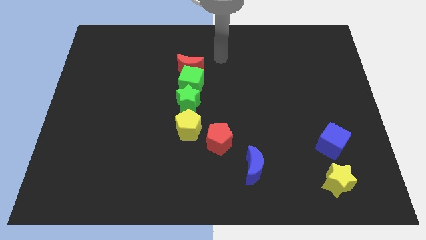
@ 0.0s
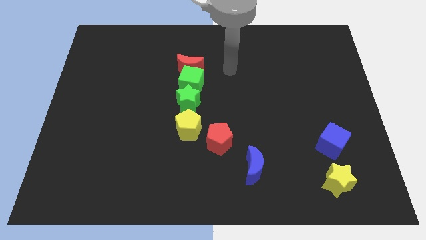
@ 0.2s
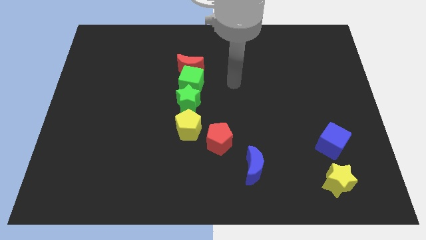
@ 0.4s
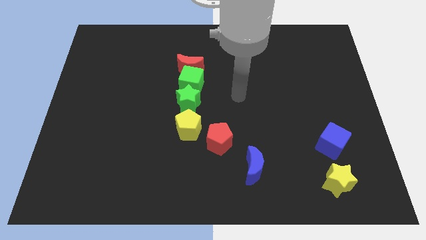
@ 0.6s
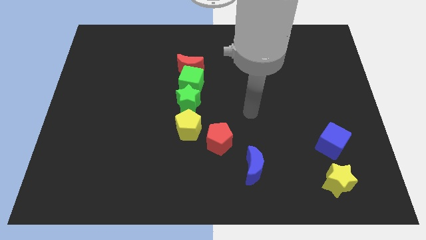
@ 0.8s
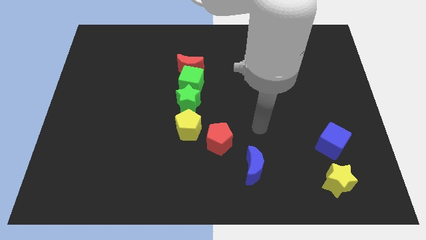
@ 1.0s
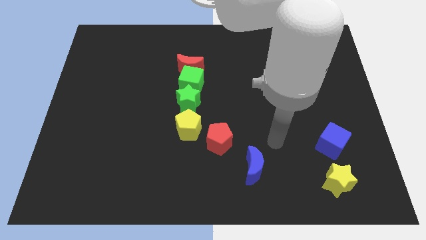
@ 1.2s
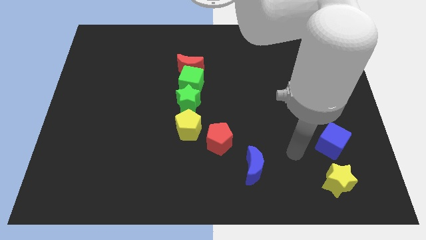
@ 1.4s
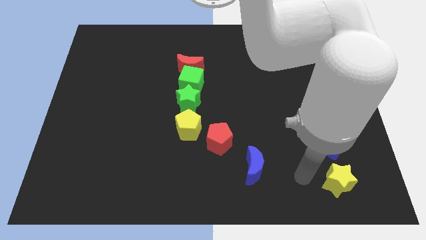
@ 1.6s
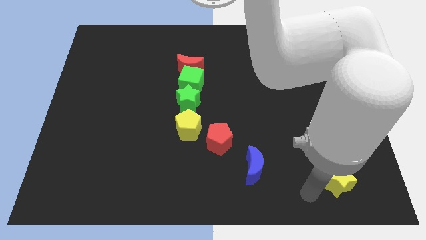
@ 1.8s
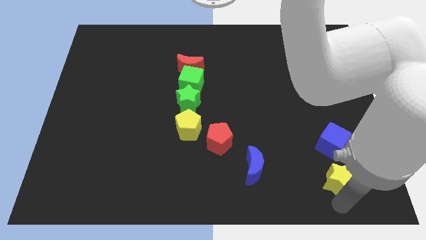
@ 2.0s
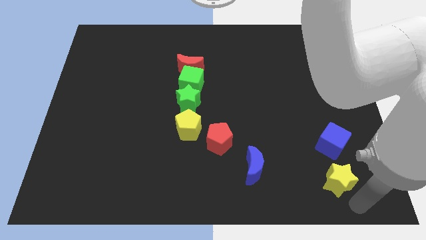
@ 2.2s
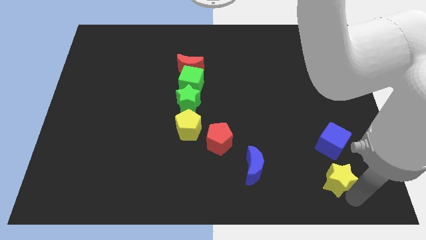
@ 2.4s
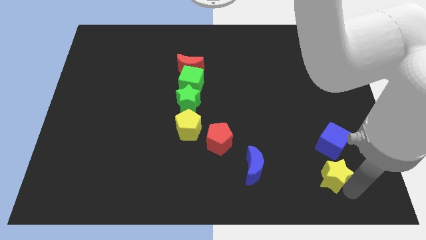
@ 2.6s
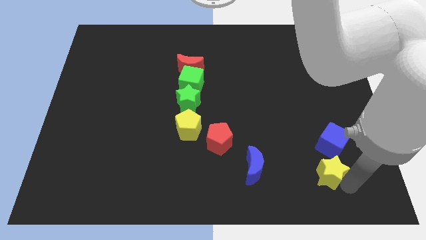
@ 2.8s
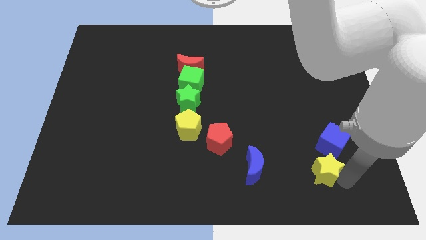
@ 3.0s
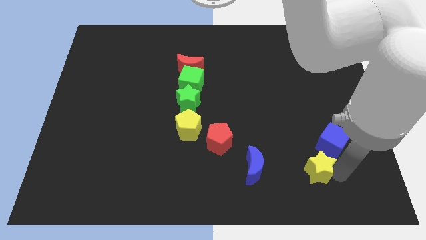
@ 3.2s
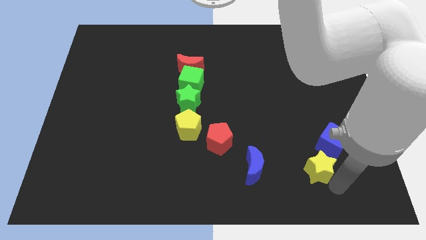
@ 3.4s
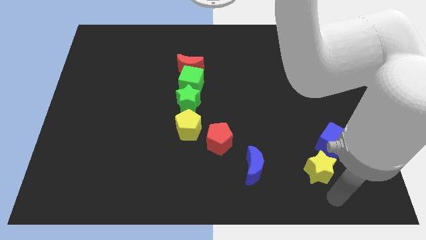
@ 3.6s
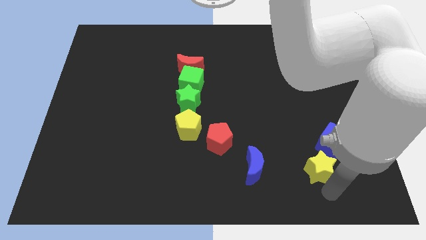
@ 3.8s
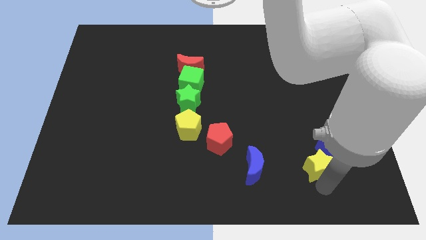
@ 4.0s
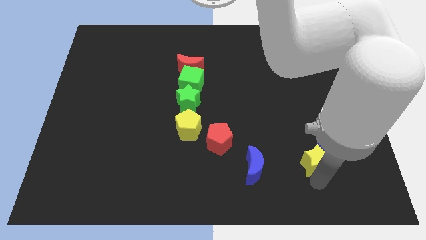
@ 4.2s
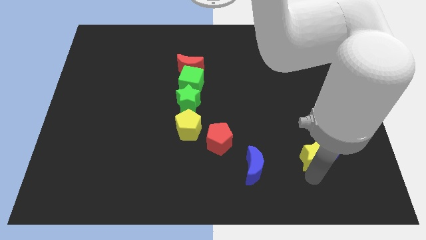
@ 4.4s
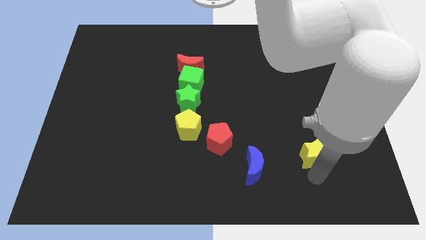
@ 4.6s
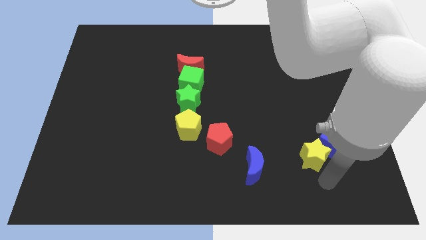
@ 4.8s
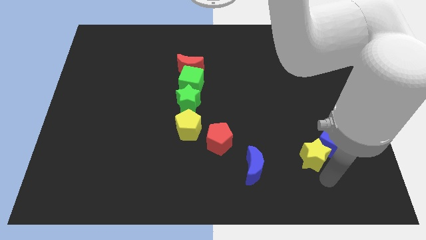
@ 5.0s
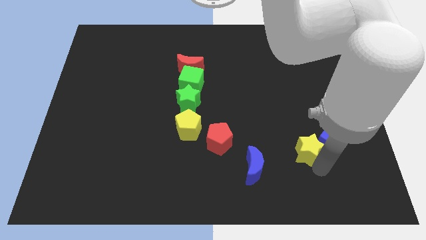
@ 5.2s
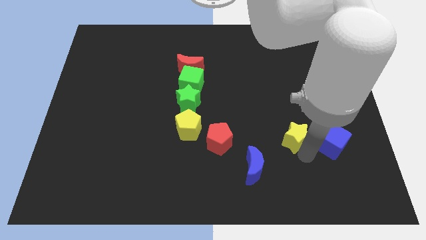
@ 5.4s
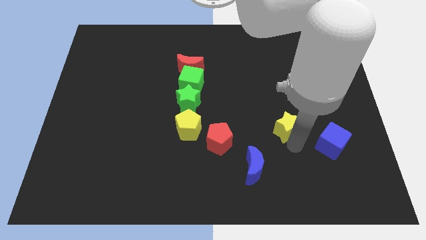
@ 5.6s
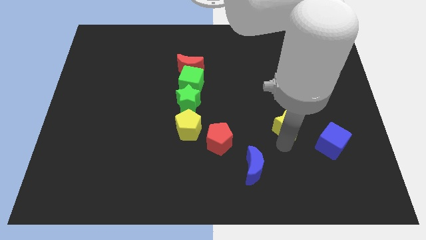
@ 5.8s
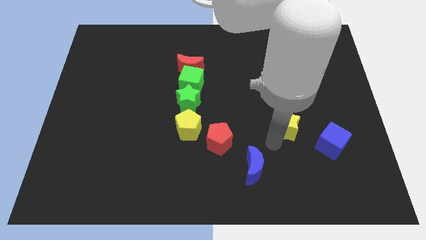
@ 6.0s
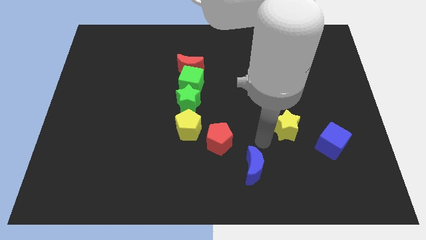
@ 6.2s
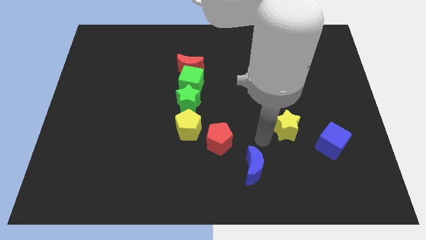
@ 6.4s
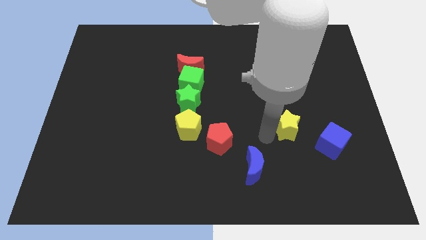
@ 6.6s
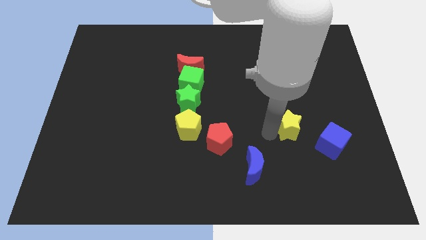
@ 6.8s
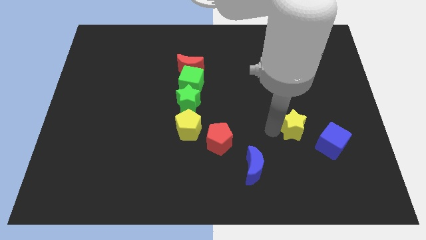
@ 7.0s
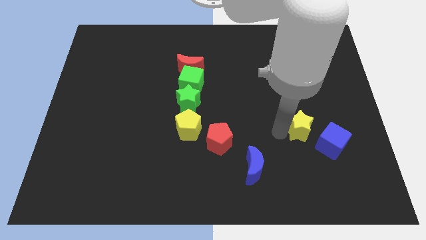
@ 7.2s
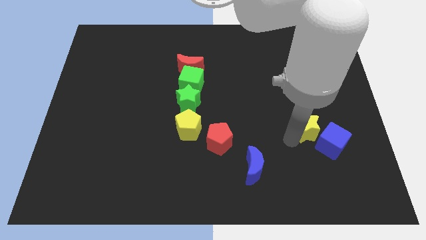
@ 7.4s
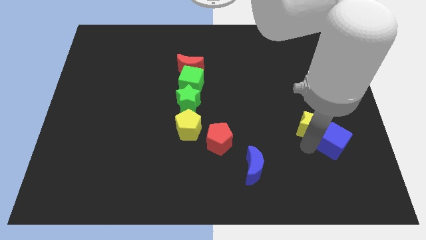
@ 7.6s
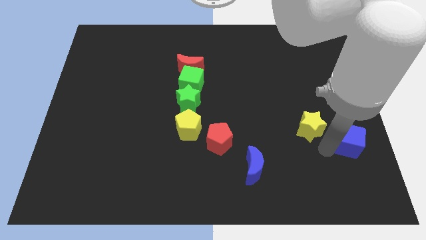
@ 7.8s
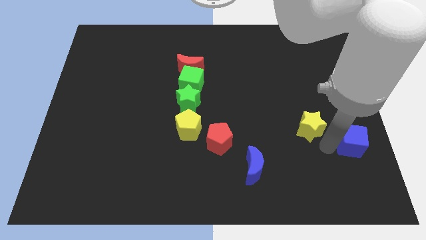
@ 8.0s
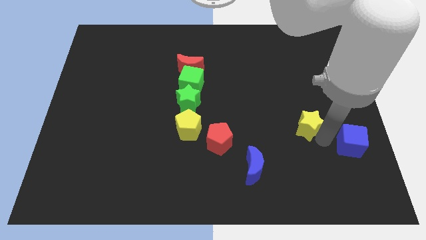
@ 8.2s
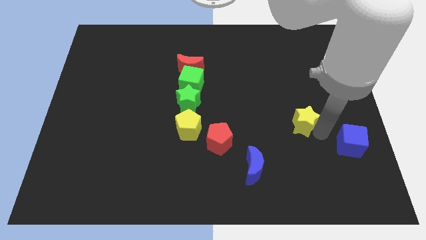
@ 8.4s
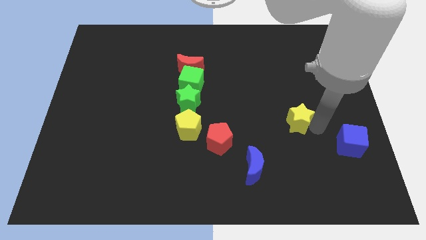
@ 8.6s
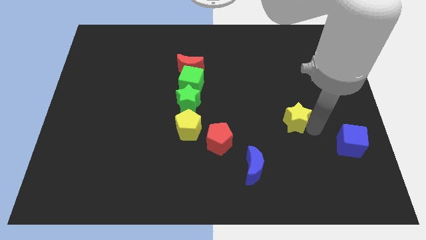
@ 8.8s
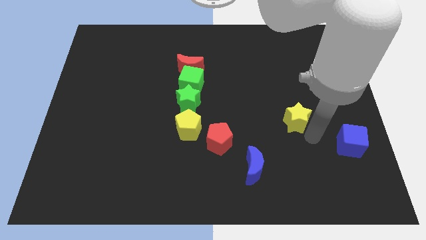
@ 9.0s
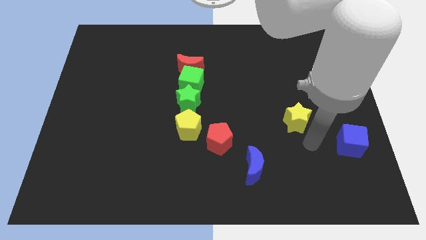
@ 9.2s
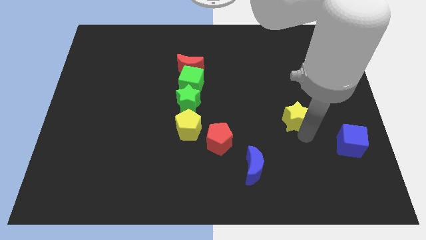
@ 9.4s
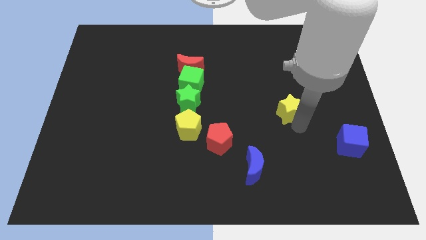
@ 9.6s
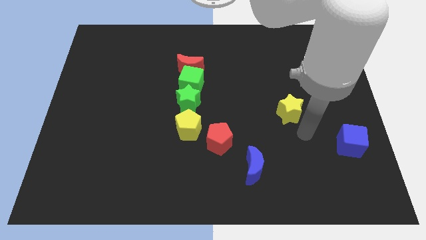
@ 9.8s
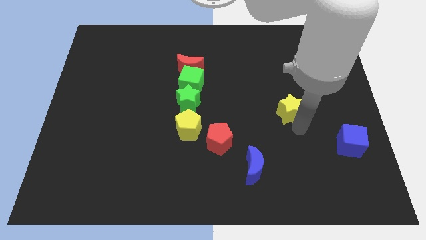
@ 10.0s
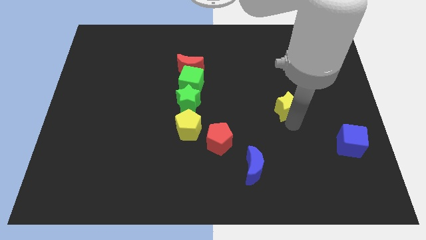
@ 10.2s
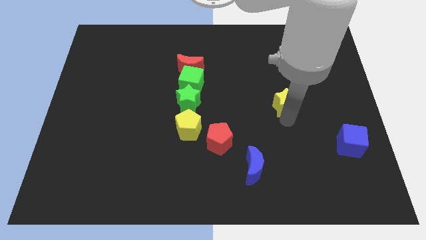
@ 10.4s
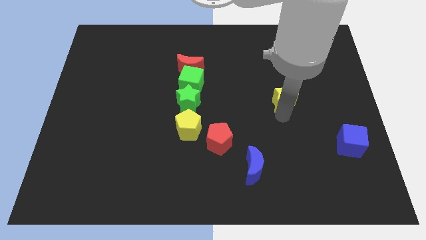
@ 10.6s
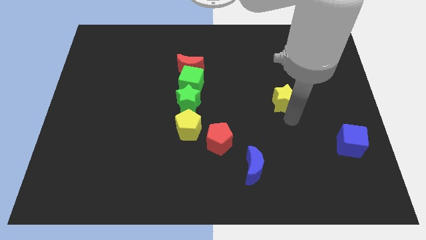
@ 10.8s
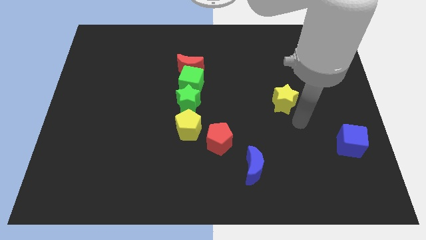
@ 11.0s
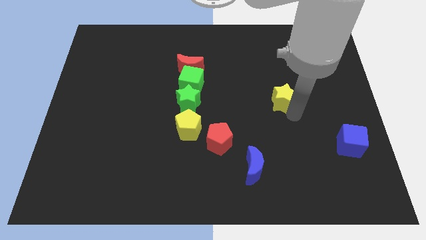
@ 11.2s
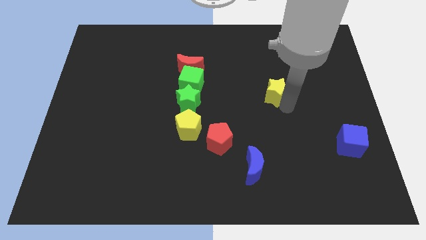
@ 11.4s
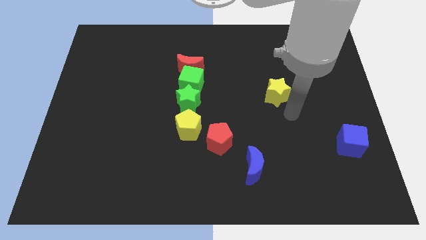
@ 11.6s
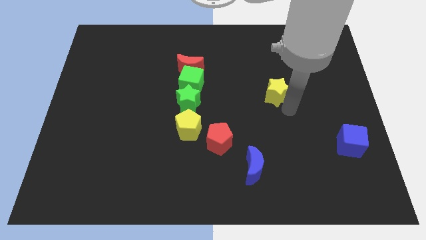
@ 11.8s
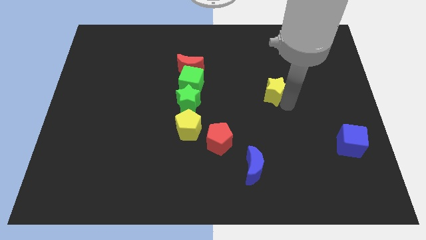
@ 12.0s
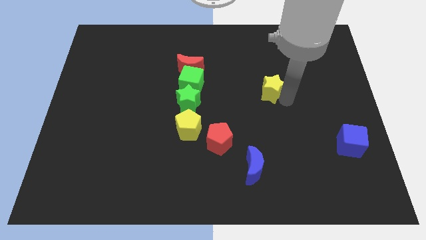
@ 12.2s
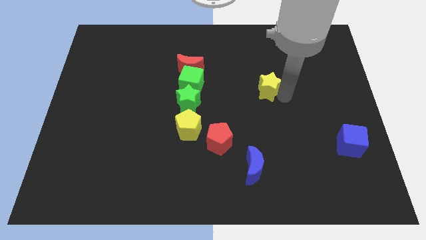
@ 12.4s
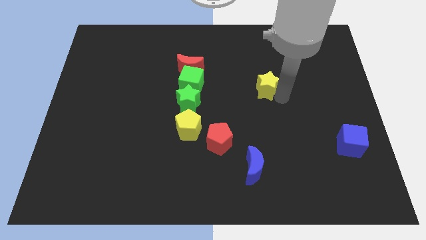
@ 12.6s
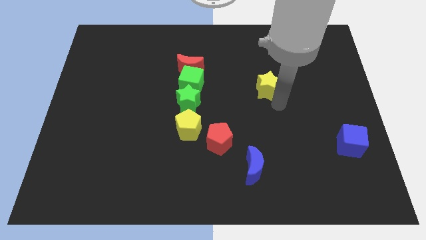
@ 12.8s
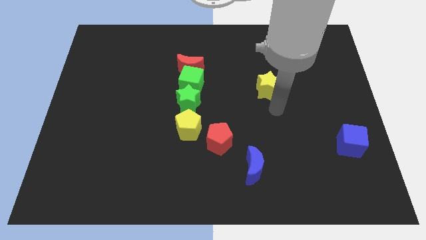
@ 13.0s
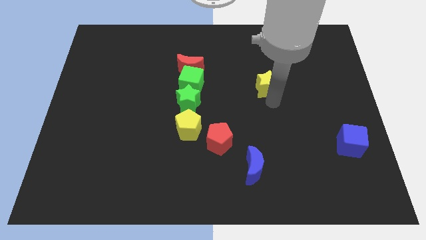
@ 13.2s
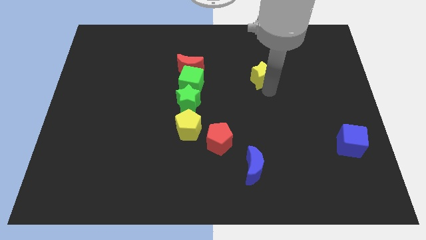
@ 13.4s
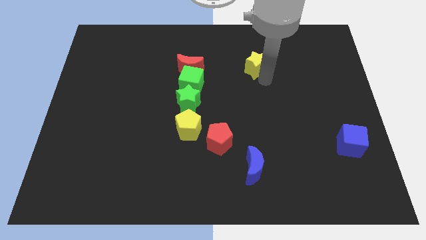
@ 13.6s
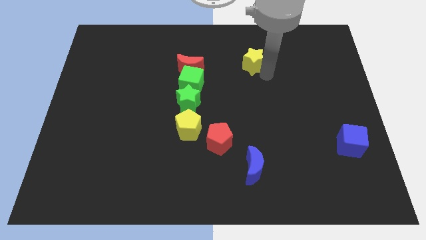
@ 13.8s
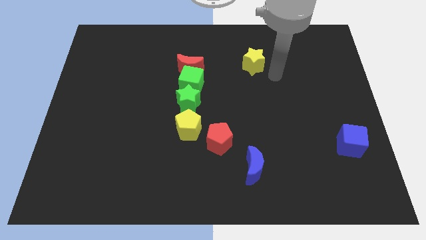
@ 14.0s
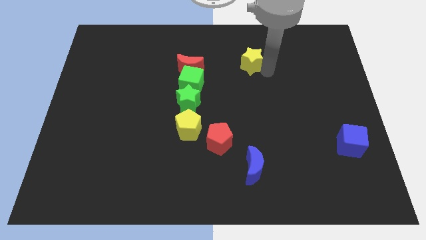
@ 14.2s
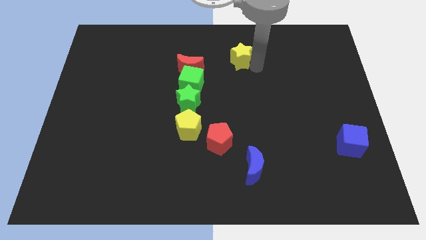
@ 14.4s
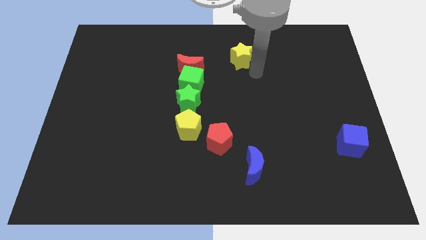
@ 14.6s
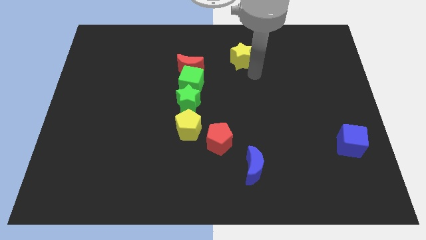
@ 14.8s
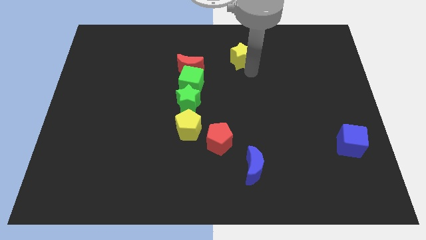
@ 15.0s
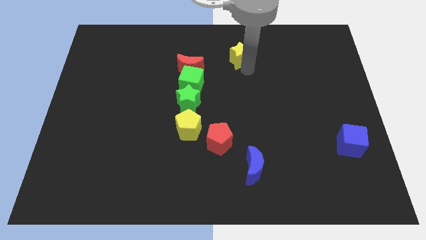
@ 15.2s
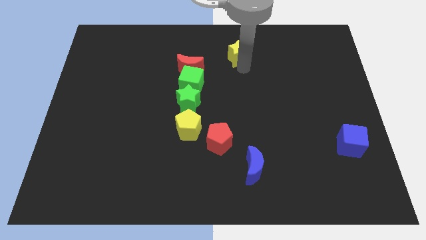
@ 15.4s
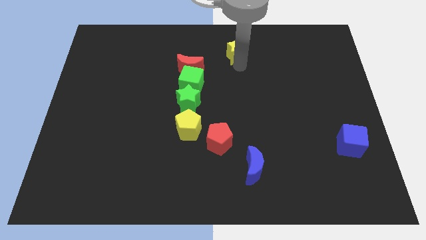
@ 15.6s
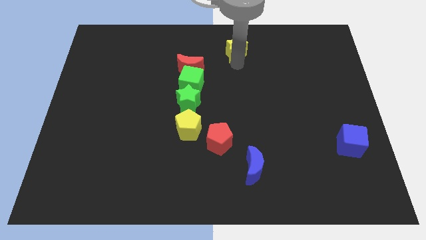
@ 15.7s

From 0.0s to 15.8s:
slide the yellow star to the top side
